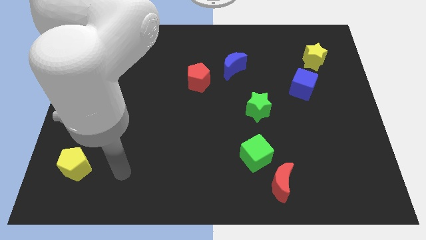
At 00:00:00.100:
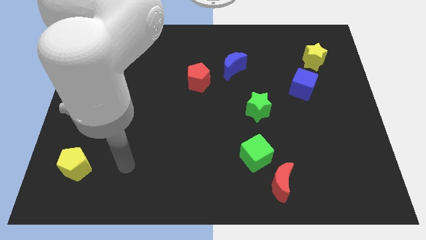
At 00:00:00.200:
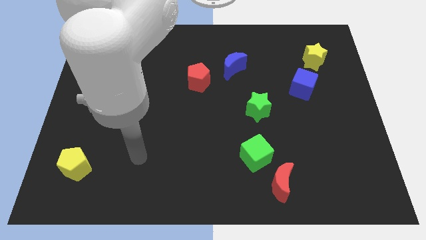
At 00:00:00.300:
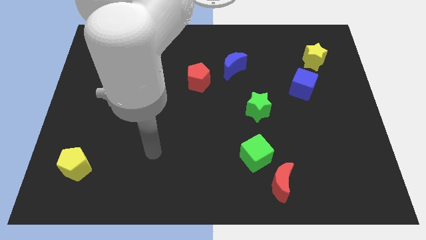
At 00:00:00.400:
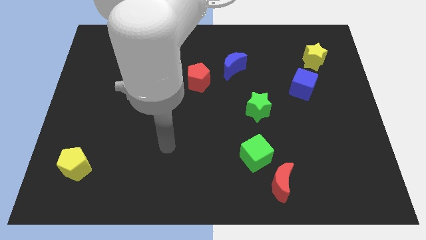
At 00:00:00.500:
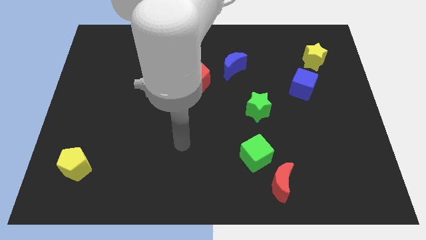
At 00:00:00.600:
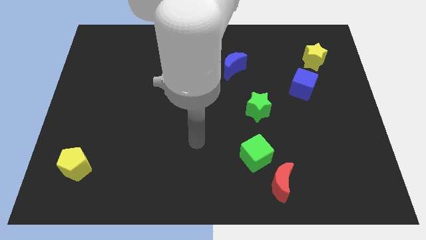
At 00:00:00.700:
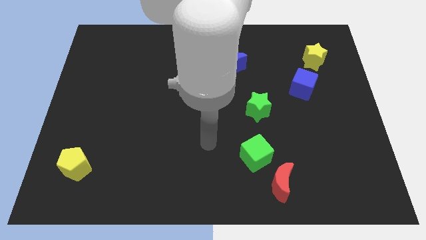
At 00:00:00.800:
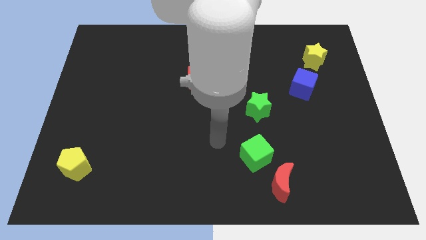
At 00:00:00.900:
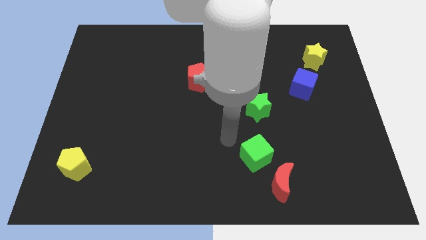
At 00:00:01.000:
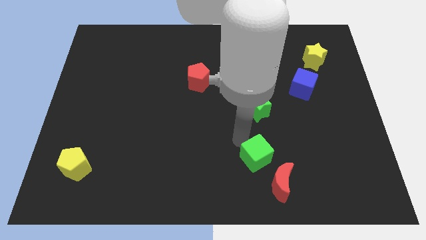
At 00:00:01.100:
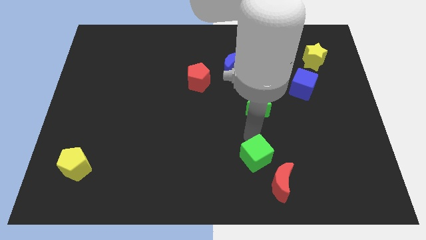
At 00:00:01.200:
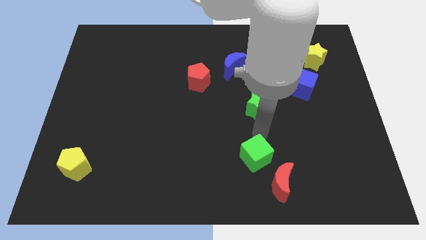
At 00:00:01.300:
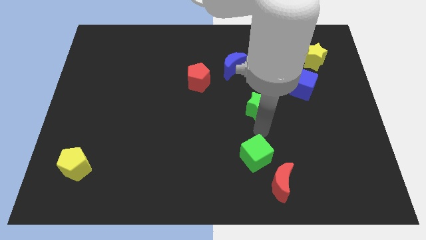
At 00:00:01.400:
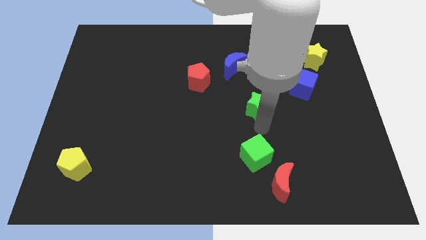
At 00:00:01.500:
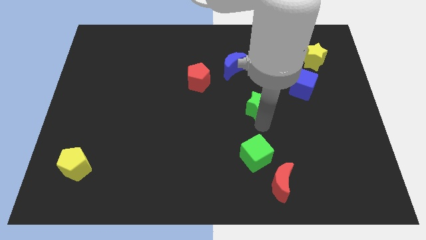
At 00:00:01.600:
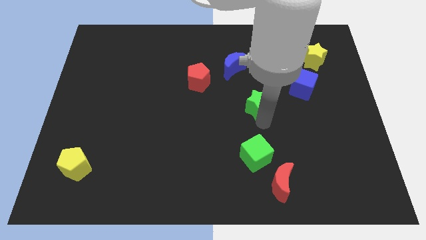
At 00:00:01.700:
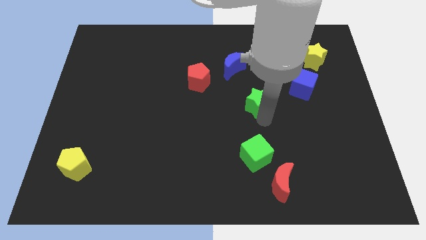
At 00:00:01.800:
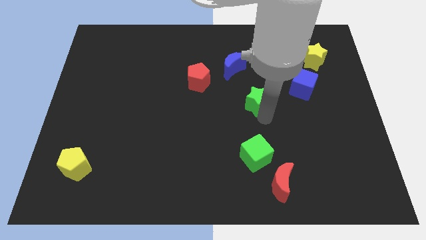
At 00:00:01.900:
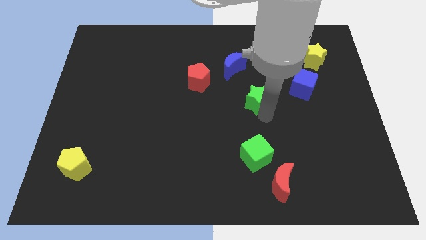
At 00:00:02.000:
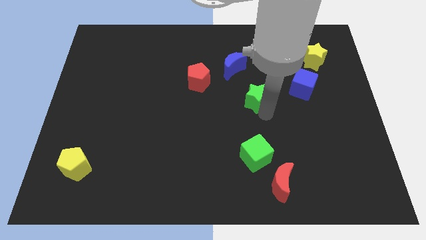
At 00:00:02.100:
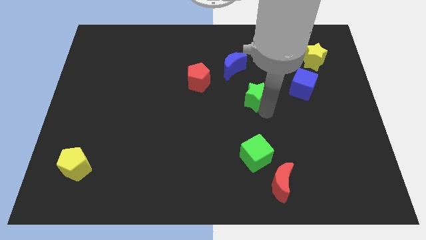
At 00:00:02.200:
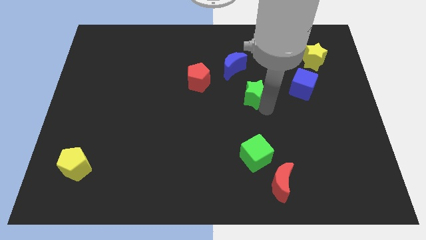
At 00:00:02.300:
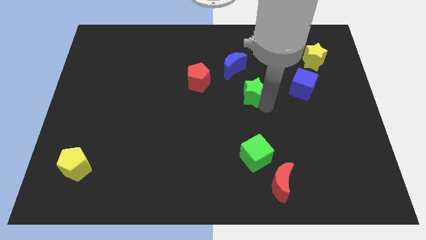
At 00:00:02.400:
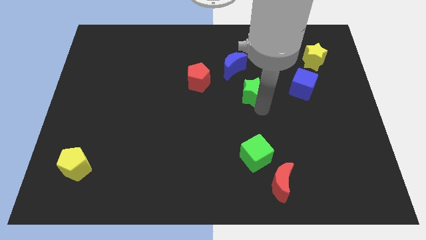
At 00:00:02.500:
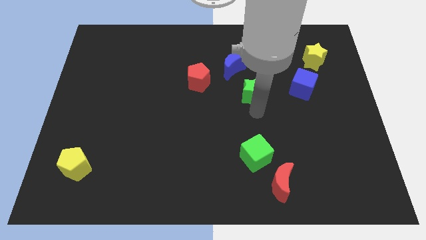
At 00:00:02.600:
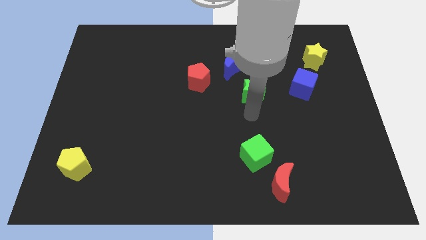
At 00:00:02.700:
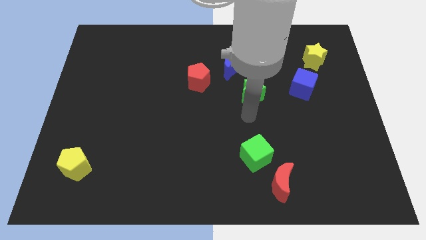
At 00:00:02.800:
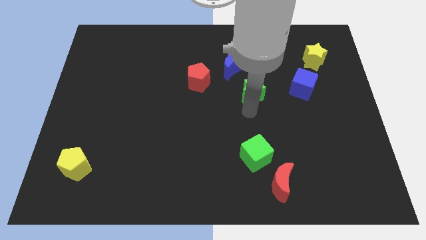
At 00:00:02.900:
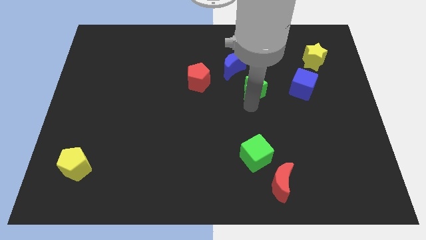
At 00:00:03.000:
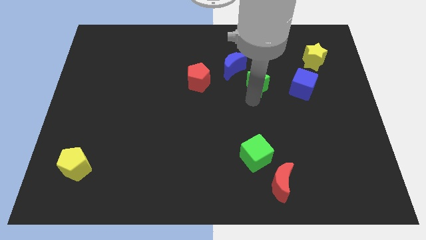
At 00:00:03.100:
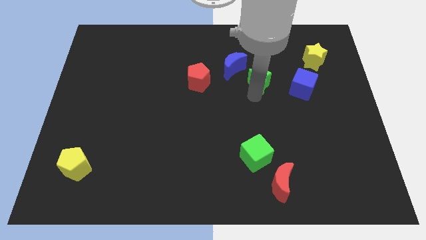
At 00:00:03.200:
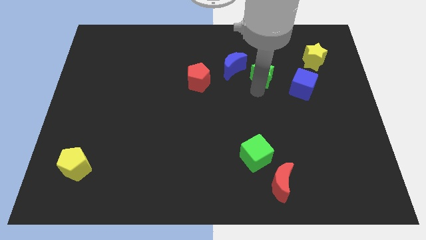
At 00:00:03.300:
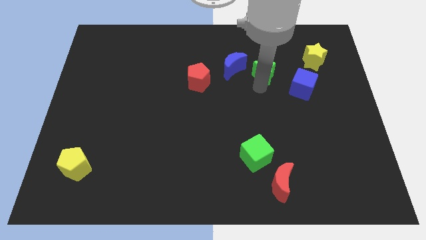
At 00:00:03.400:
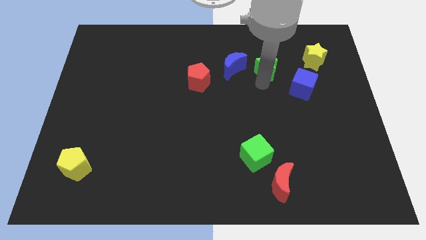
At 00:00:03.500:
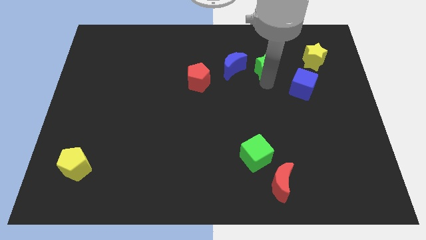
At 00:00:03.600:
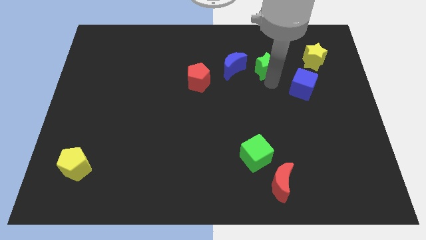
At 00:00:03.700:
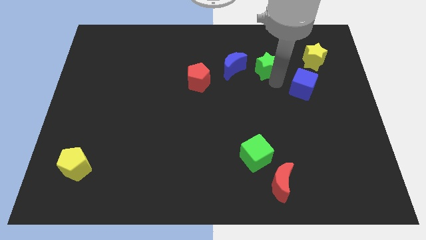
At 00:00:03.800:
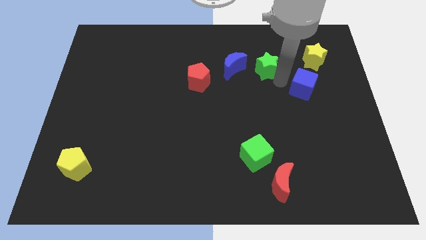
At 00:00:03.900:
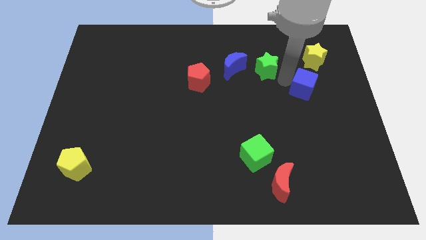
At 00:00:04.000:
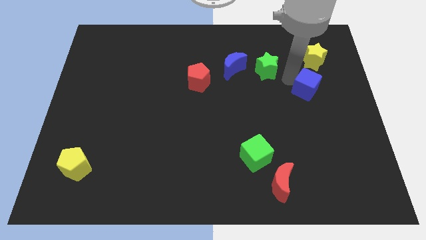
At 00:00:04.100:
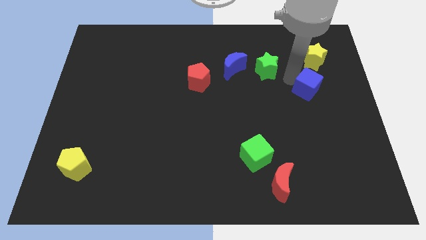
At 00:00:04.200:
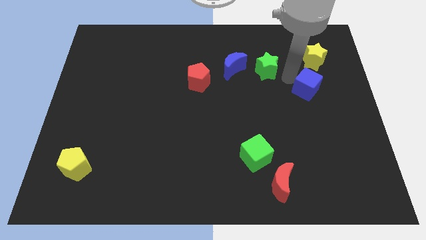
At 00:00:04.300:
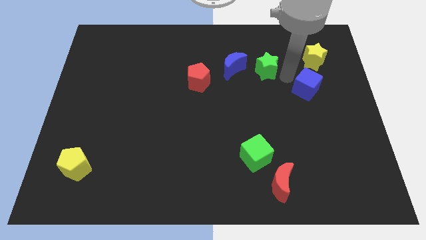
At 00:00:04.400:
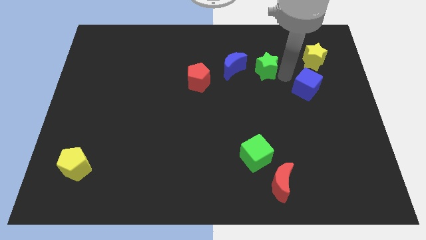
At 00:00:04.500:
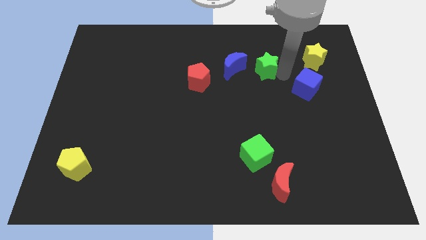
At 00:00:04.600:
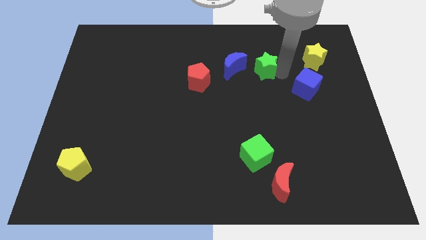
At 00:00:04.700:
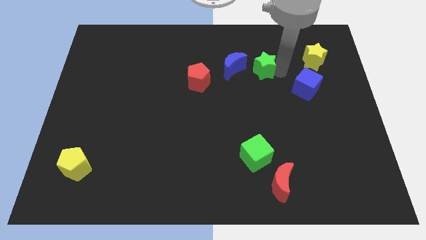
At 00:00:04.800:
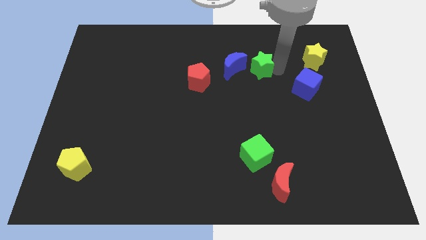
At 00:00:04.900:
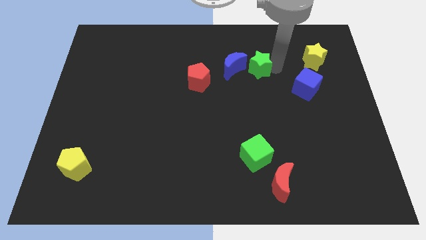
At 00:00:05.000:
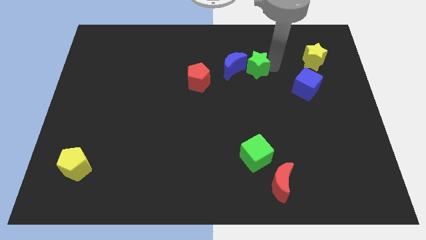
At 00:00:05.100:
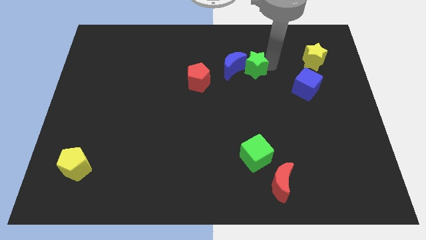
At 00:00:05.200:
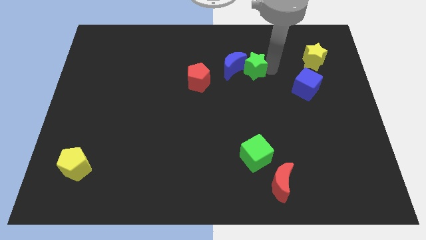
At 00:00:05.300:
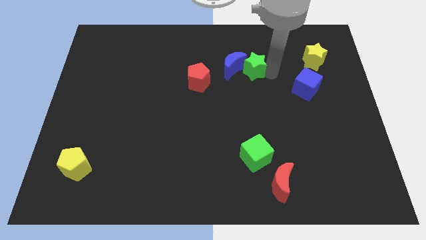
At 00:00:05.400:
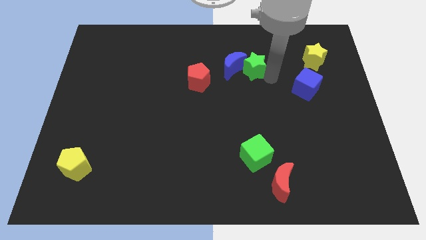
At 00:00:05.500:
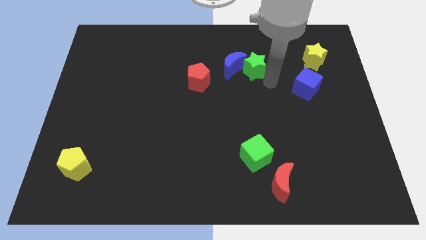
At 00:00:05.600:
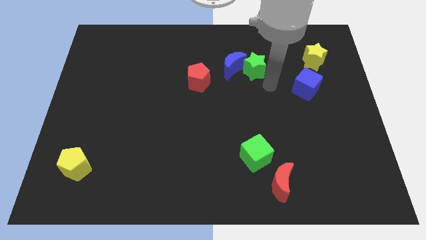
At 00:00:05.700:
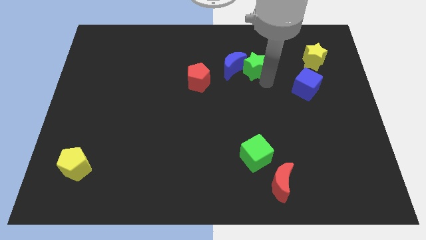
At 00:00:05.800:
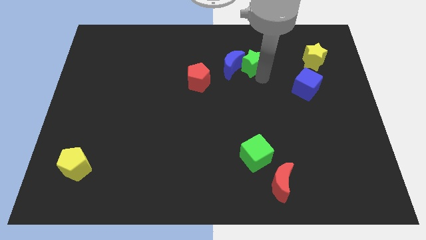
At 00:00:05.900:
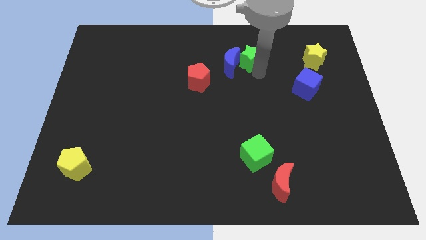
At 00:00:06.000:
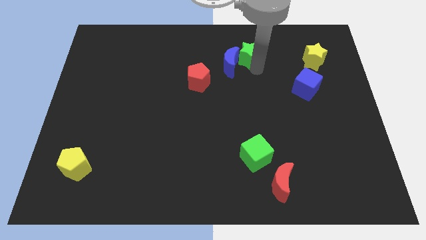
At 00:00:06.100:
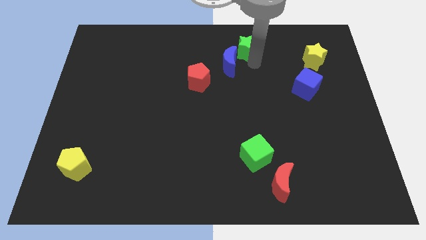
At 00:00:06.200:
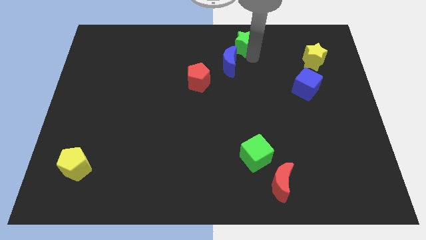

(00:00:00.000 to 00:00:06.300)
move the green star to the top side
